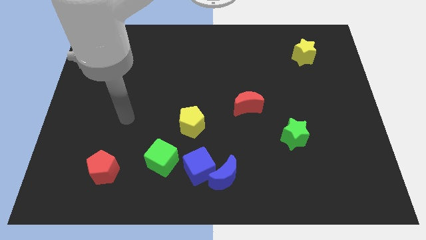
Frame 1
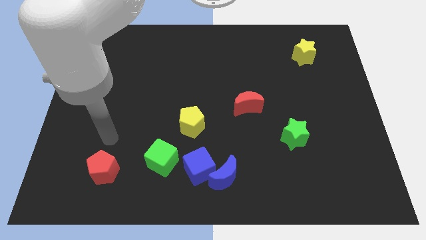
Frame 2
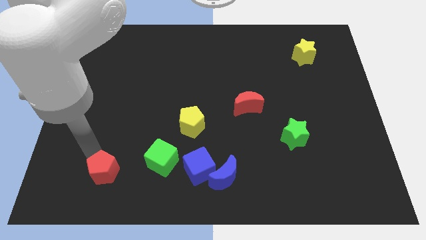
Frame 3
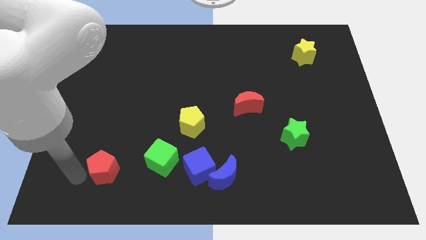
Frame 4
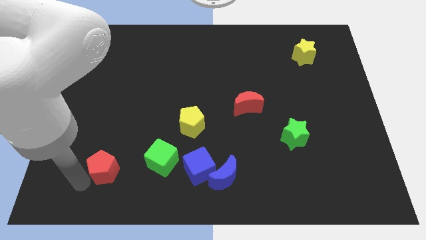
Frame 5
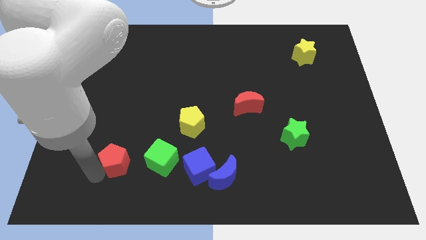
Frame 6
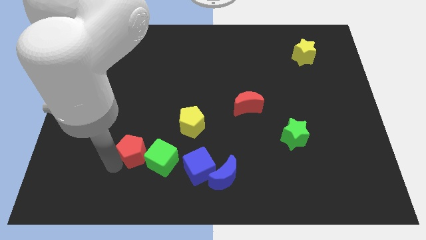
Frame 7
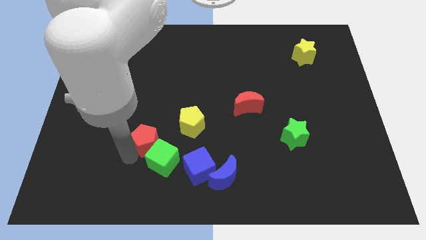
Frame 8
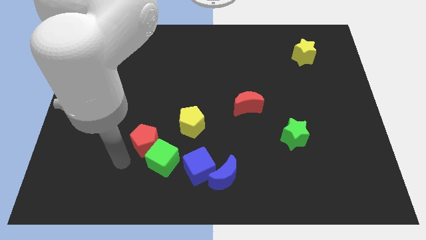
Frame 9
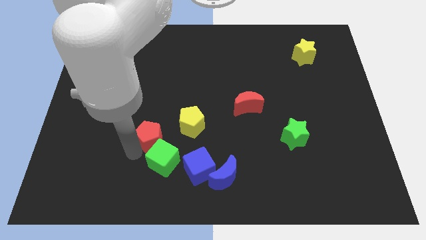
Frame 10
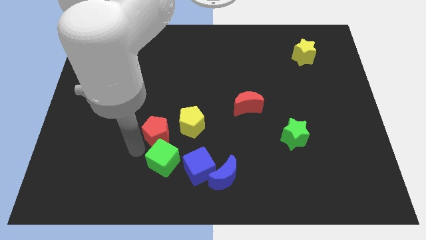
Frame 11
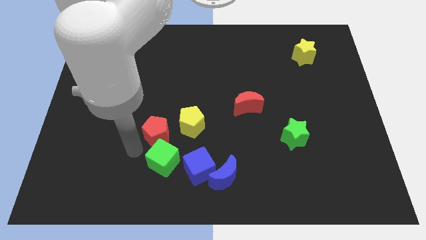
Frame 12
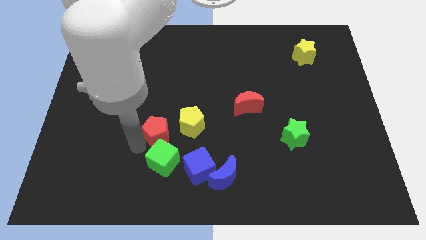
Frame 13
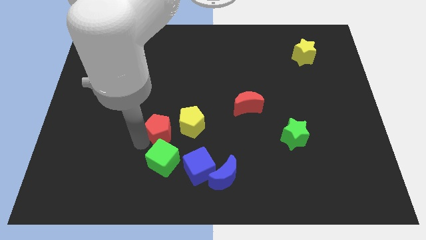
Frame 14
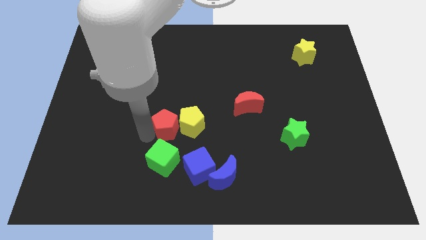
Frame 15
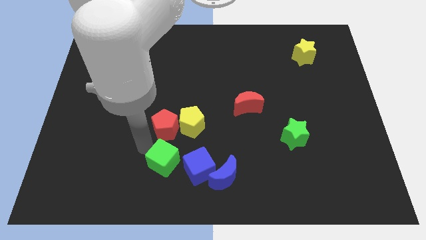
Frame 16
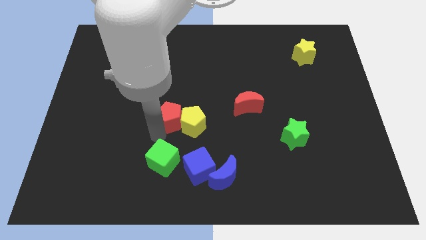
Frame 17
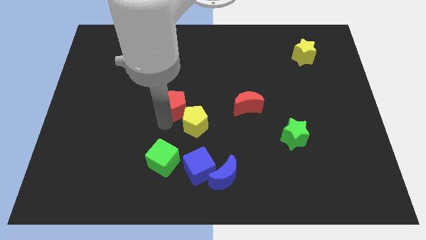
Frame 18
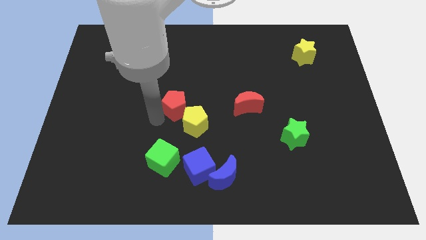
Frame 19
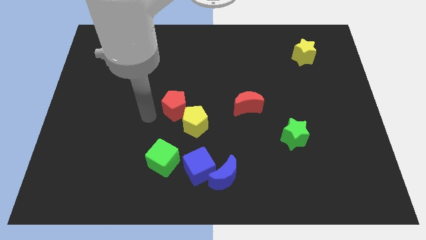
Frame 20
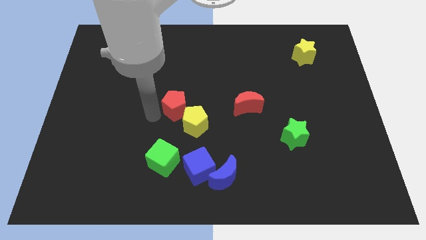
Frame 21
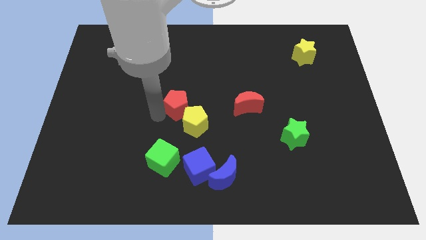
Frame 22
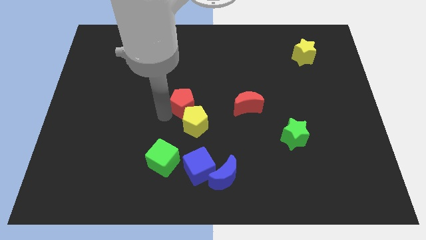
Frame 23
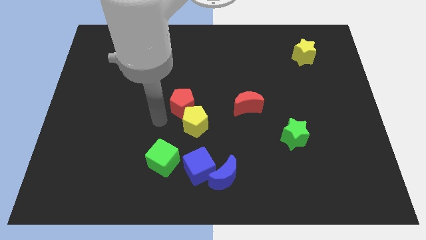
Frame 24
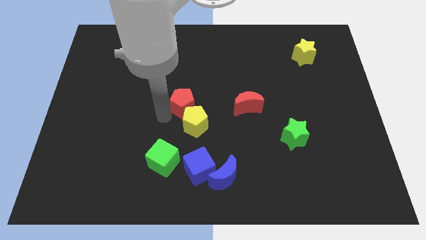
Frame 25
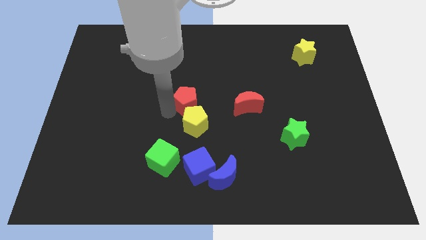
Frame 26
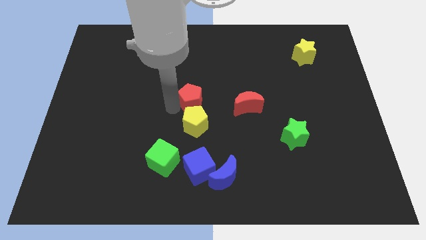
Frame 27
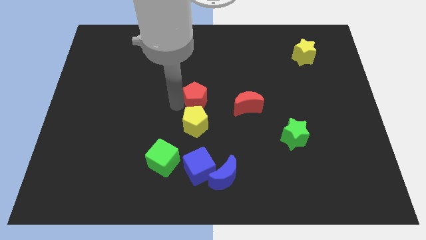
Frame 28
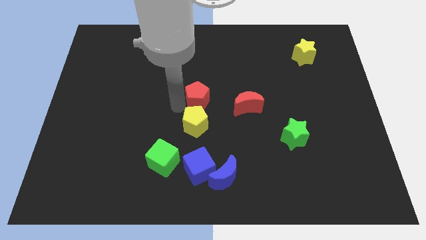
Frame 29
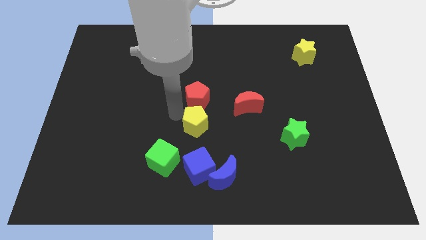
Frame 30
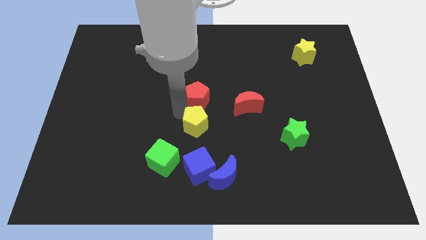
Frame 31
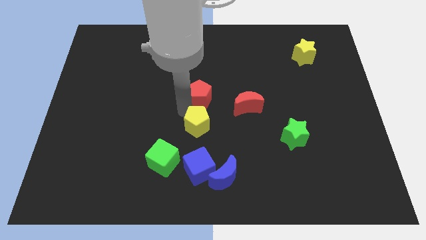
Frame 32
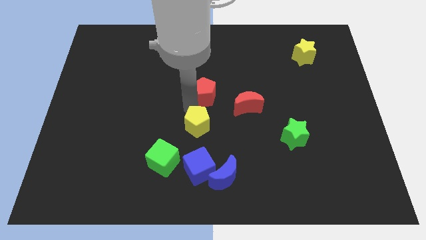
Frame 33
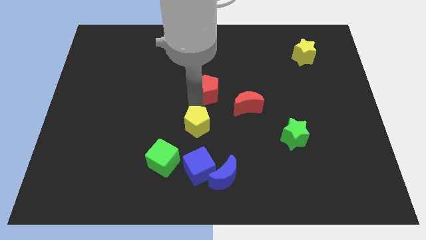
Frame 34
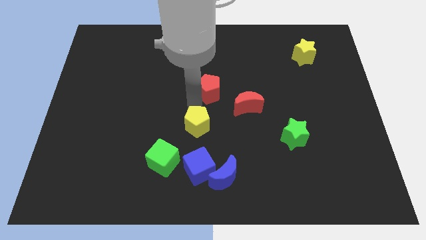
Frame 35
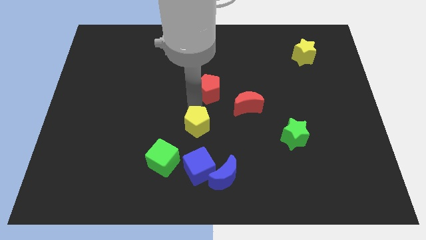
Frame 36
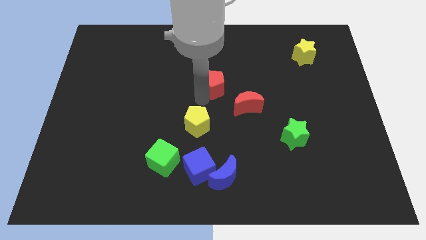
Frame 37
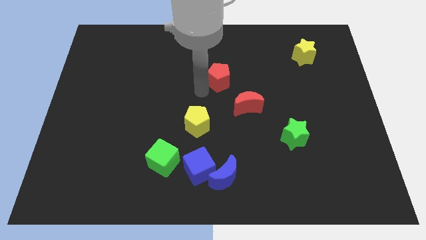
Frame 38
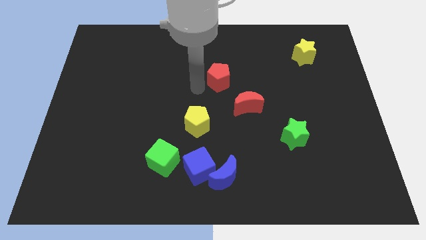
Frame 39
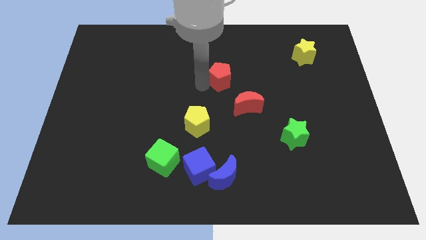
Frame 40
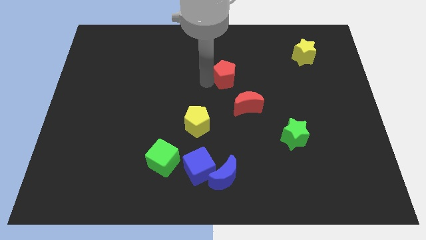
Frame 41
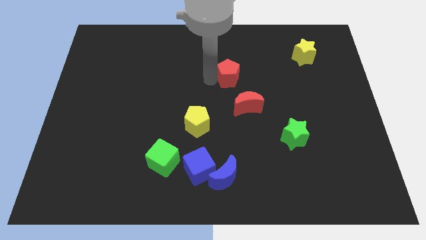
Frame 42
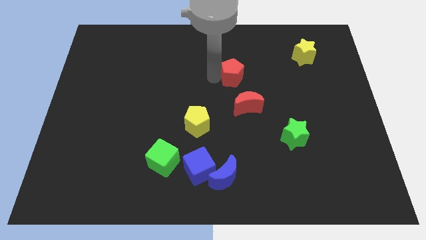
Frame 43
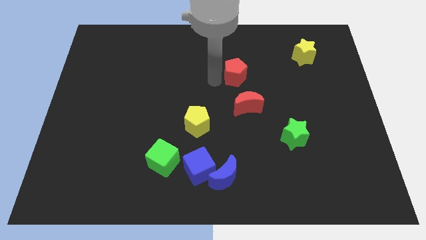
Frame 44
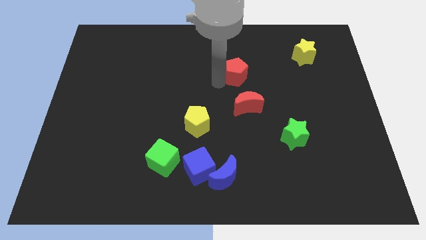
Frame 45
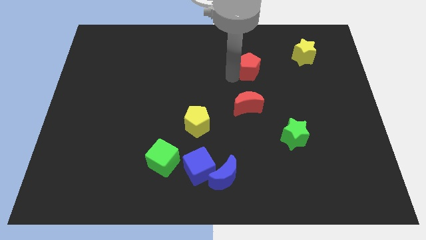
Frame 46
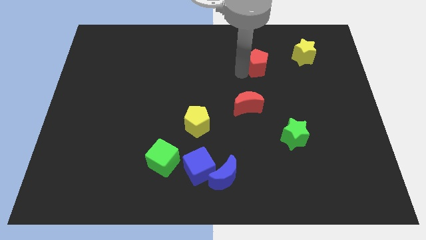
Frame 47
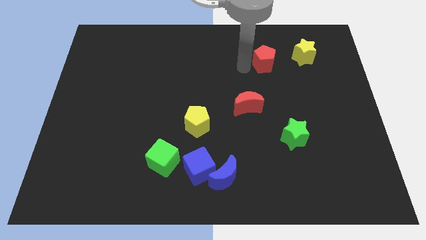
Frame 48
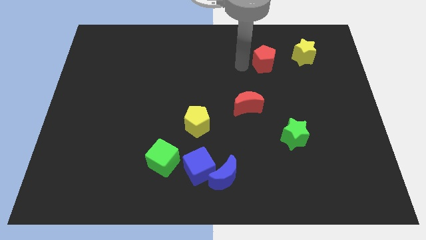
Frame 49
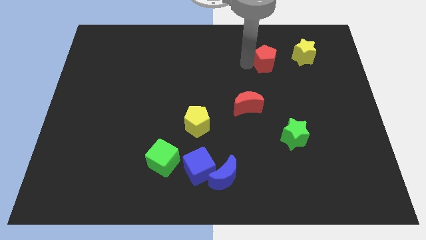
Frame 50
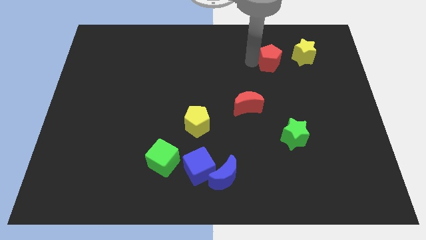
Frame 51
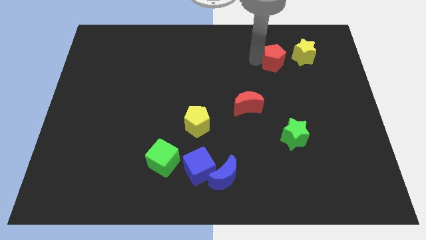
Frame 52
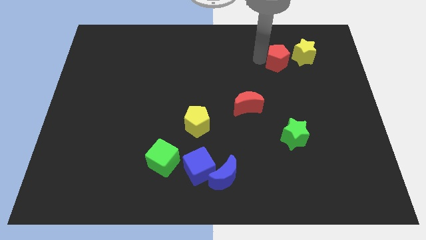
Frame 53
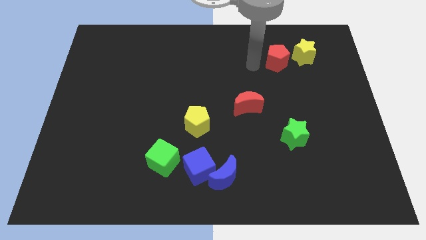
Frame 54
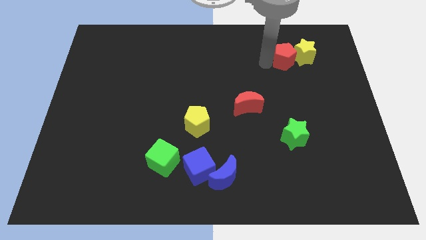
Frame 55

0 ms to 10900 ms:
push the red pentagon close to the yellow star

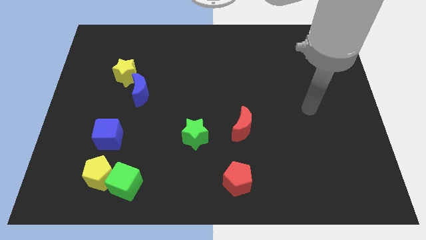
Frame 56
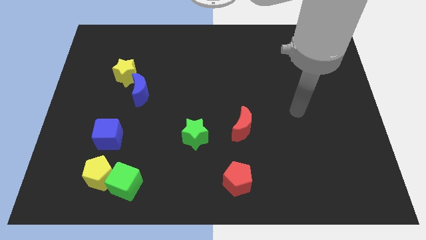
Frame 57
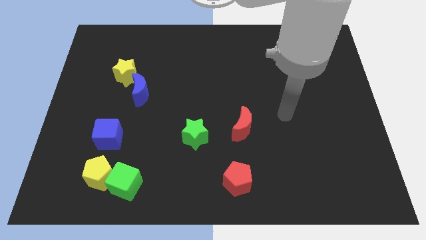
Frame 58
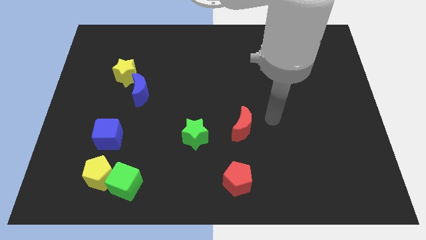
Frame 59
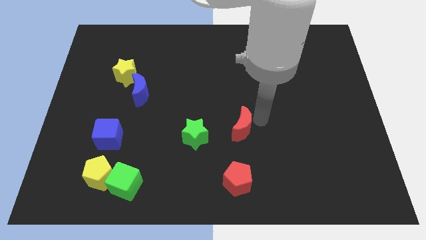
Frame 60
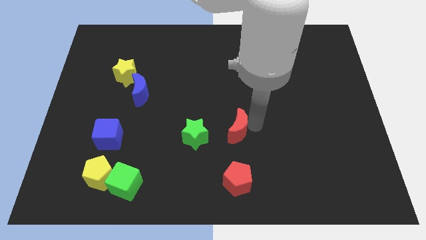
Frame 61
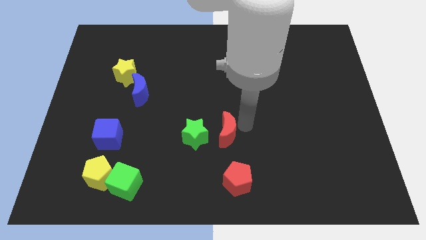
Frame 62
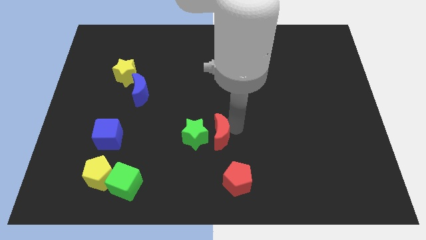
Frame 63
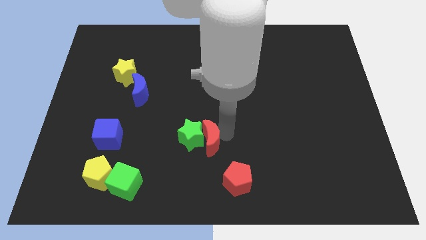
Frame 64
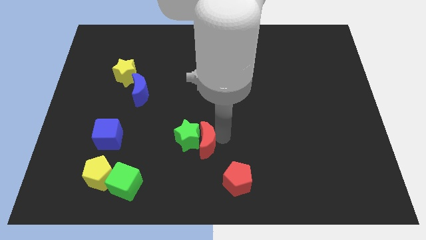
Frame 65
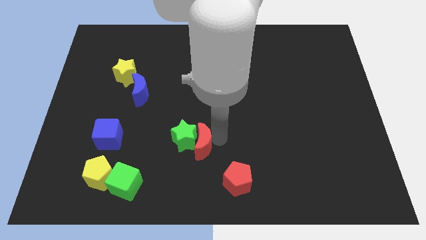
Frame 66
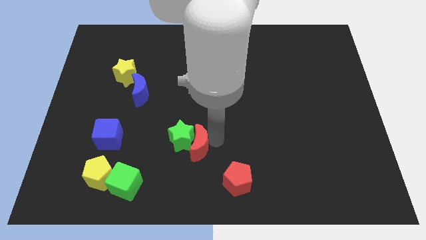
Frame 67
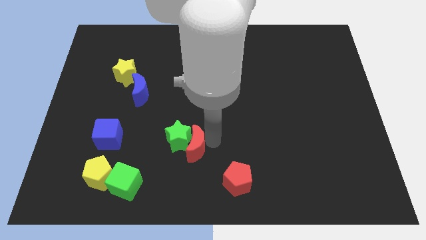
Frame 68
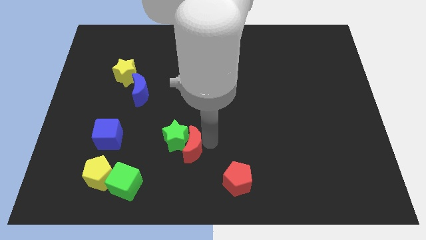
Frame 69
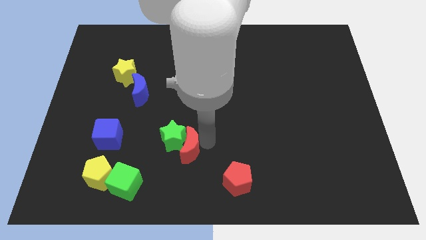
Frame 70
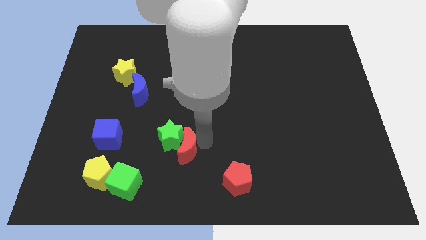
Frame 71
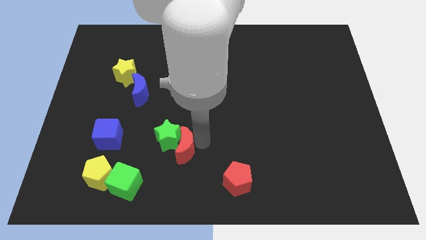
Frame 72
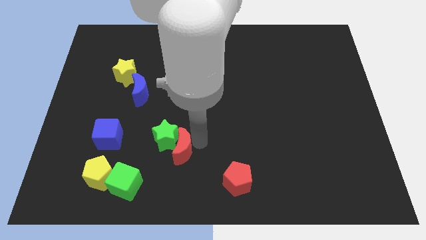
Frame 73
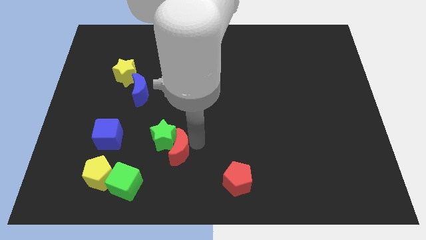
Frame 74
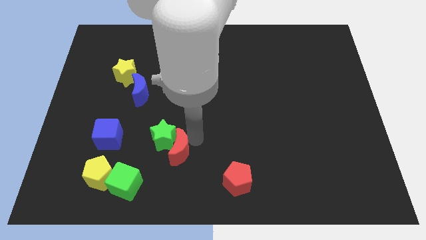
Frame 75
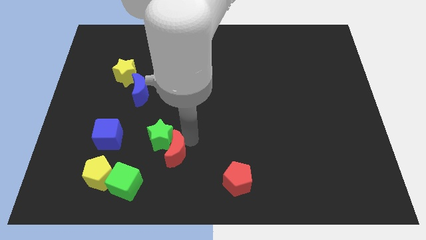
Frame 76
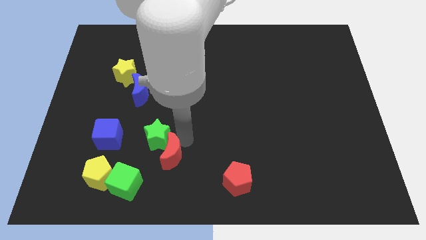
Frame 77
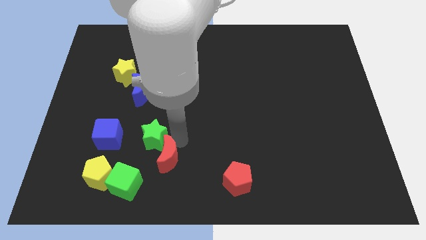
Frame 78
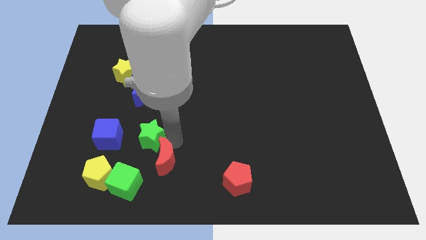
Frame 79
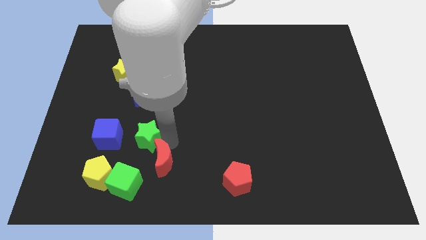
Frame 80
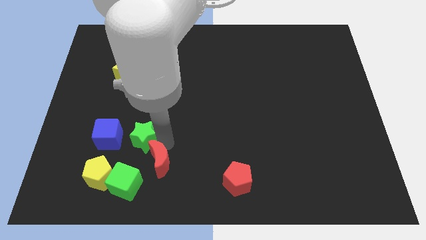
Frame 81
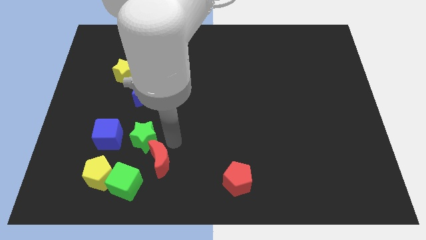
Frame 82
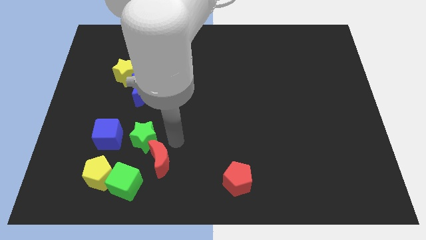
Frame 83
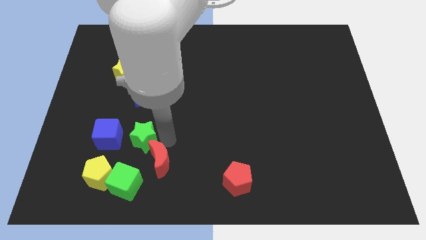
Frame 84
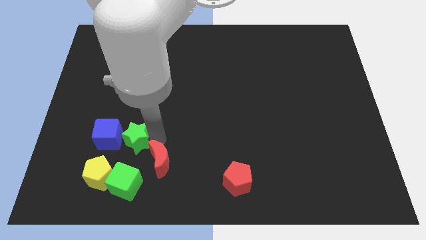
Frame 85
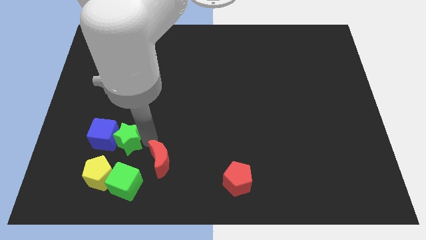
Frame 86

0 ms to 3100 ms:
put the green star next to the blue cube
